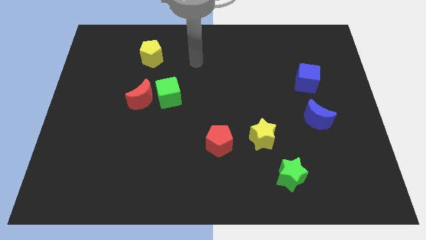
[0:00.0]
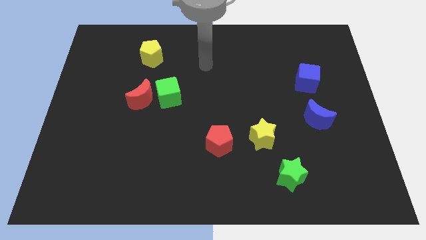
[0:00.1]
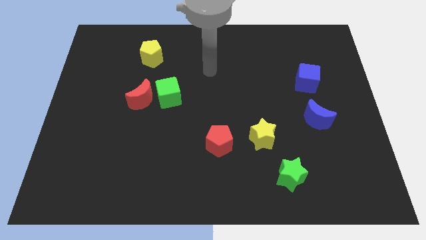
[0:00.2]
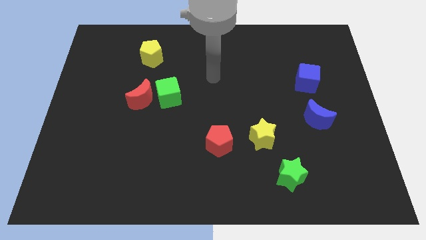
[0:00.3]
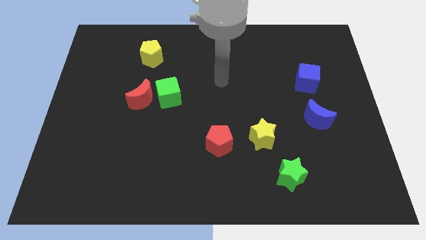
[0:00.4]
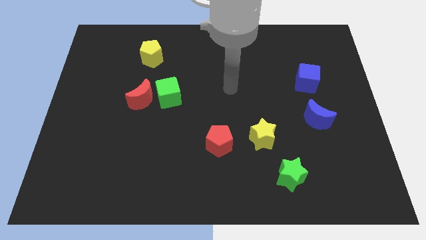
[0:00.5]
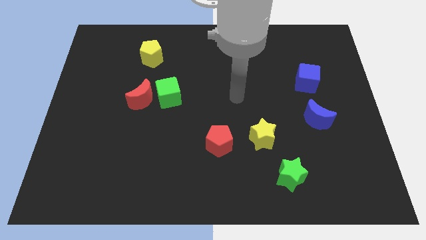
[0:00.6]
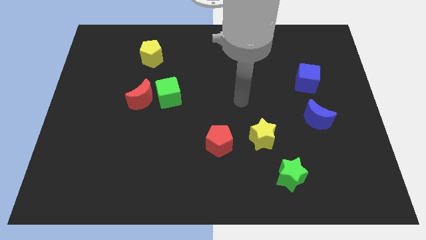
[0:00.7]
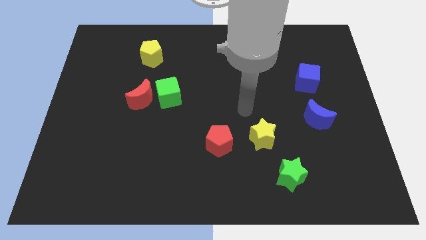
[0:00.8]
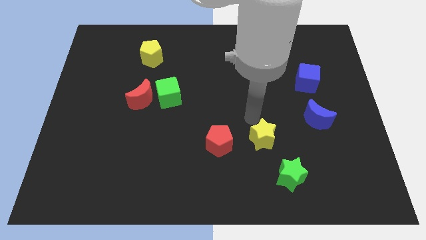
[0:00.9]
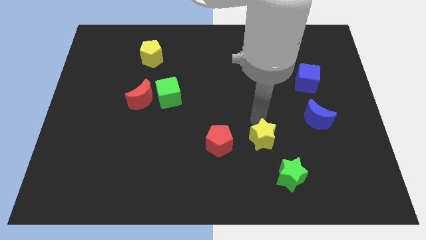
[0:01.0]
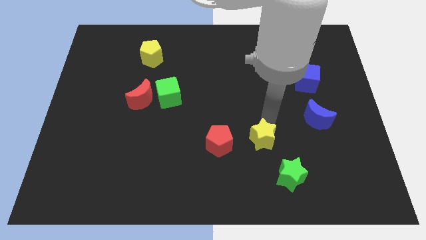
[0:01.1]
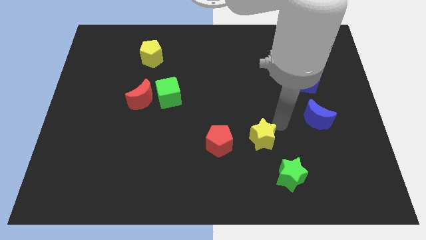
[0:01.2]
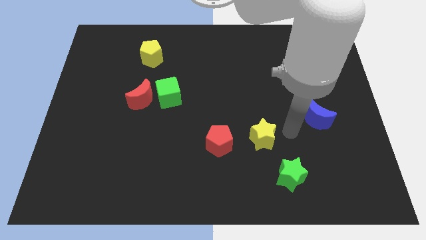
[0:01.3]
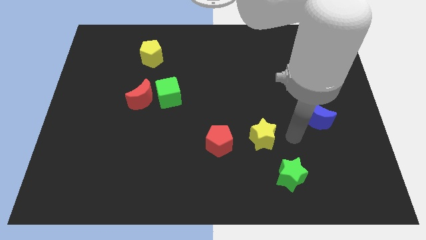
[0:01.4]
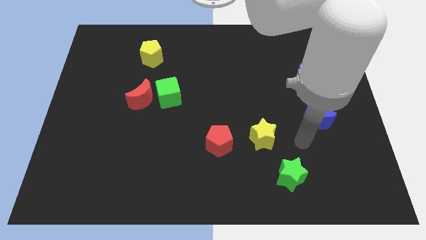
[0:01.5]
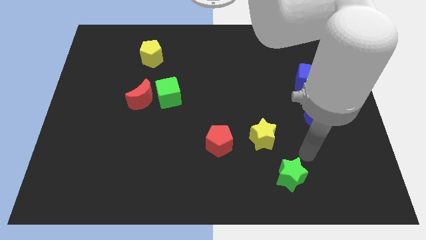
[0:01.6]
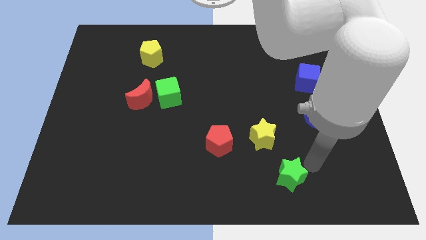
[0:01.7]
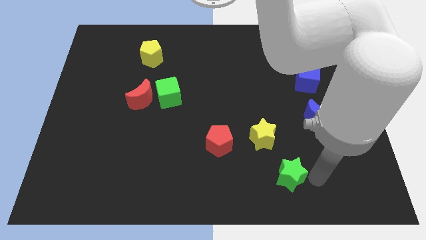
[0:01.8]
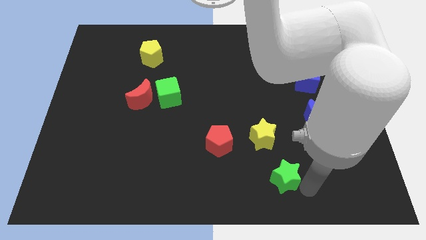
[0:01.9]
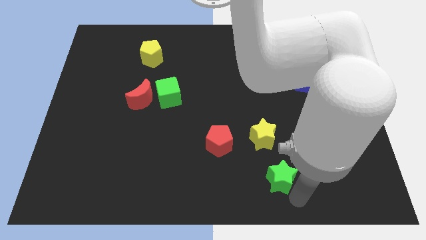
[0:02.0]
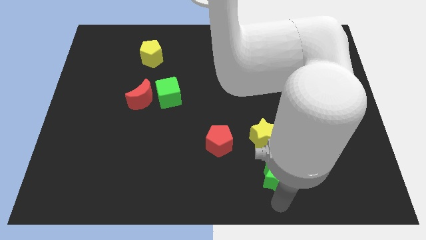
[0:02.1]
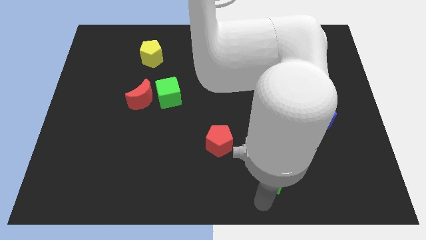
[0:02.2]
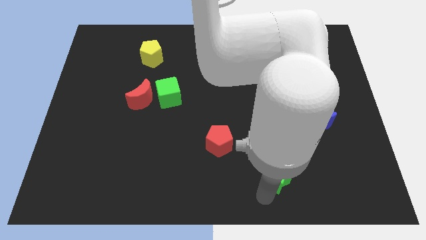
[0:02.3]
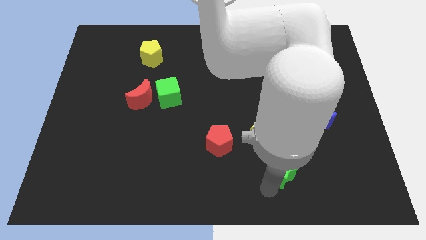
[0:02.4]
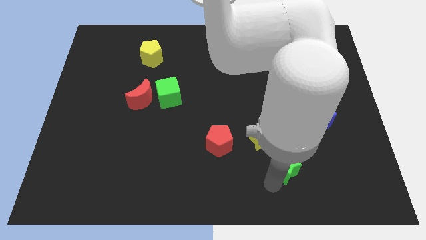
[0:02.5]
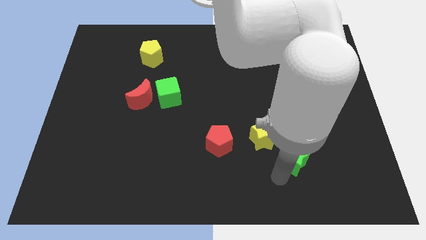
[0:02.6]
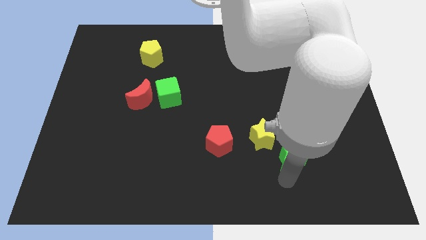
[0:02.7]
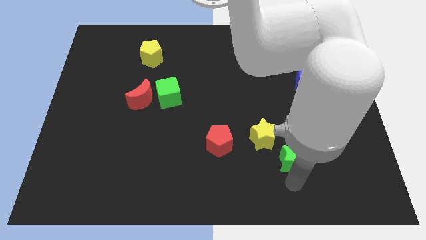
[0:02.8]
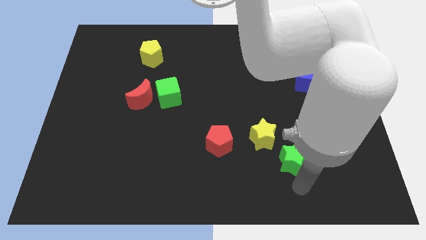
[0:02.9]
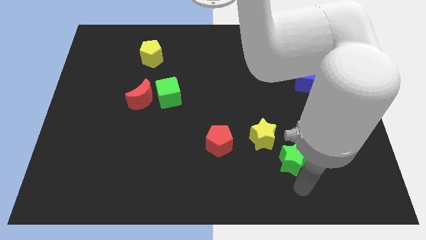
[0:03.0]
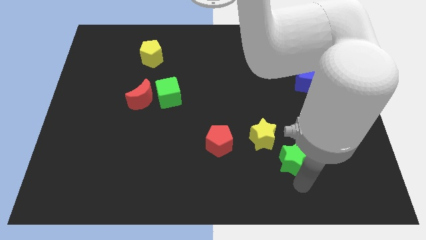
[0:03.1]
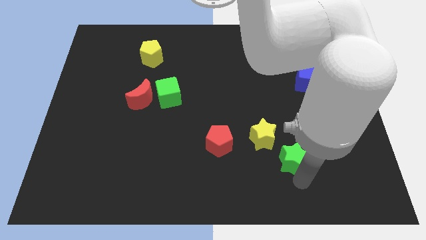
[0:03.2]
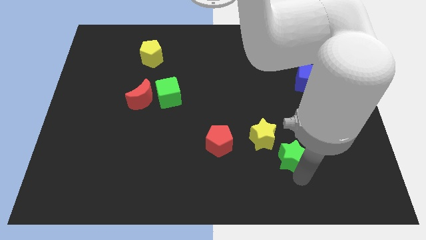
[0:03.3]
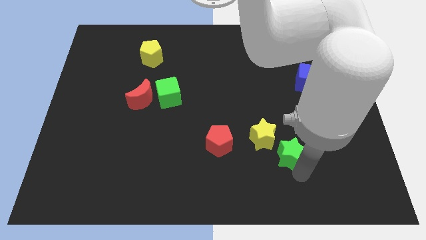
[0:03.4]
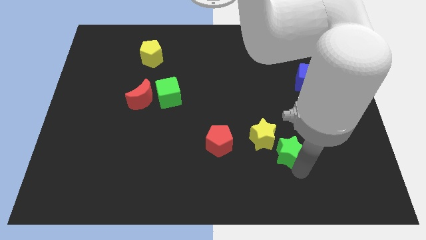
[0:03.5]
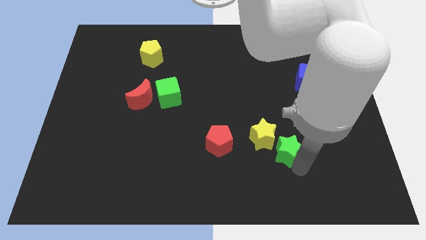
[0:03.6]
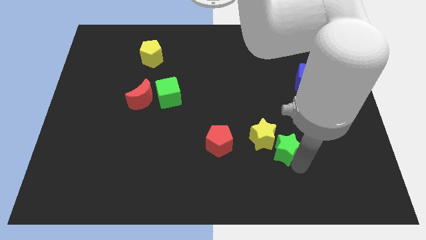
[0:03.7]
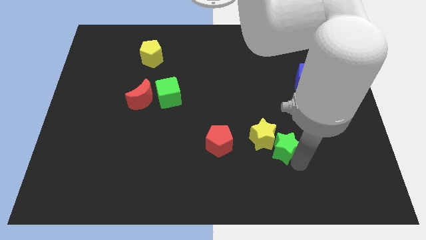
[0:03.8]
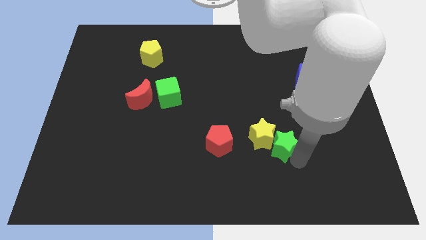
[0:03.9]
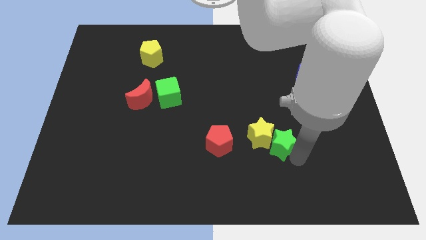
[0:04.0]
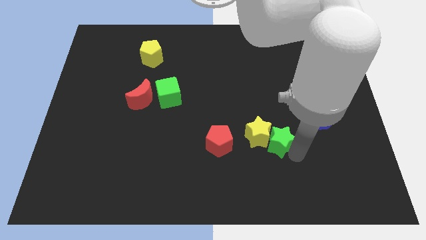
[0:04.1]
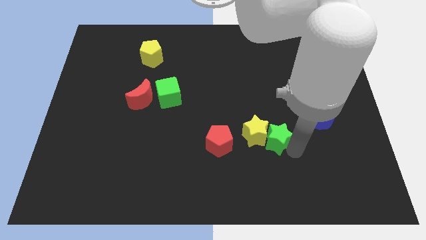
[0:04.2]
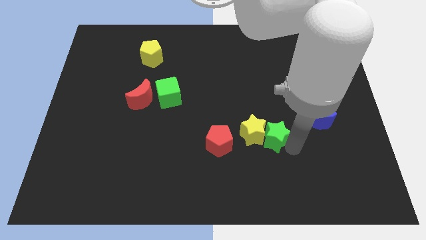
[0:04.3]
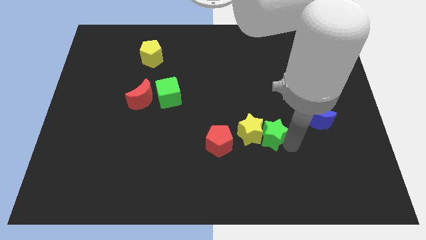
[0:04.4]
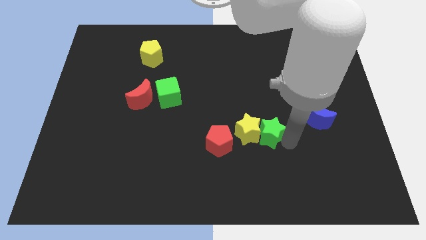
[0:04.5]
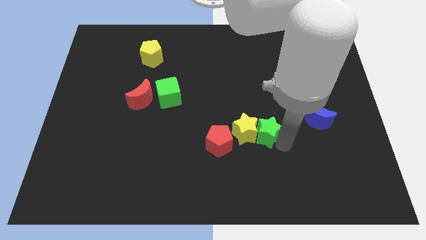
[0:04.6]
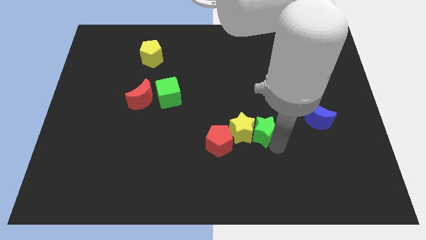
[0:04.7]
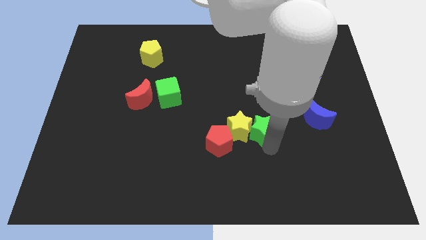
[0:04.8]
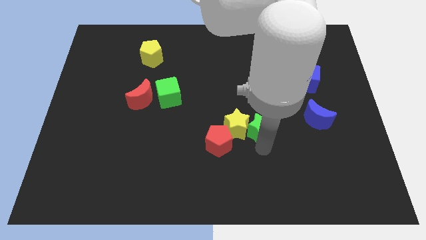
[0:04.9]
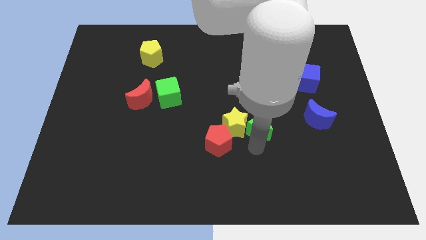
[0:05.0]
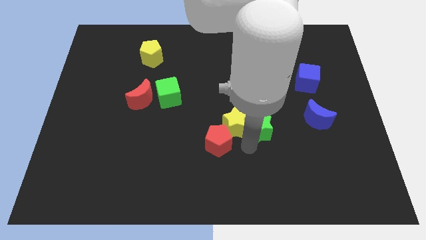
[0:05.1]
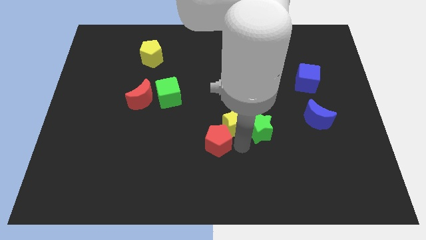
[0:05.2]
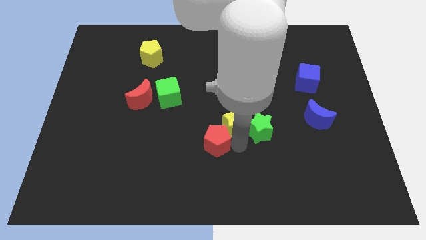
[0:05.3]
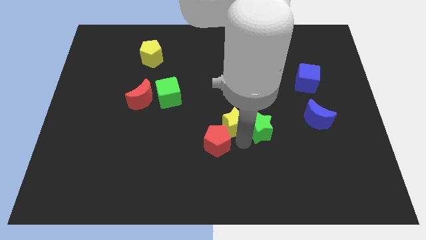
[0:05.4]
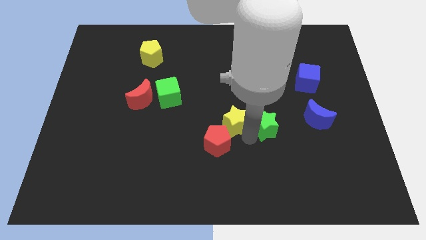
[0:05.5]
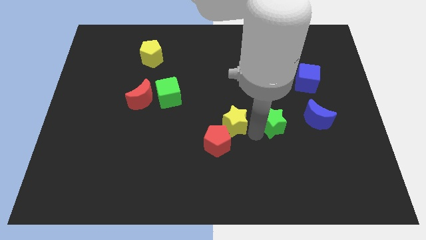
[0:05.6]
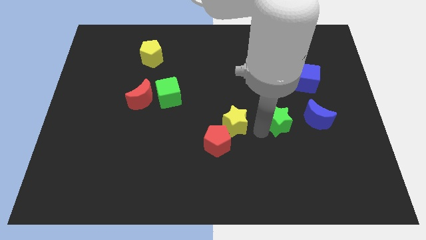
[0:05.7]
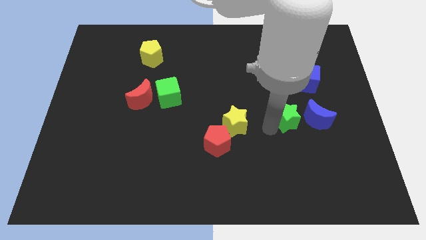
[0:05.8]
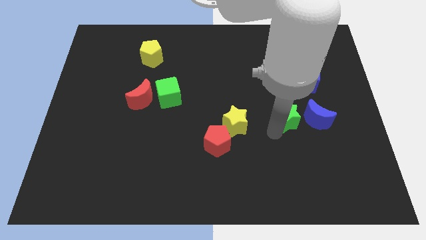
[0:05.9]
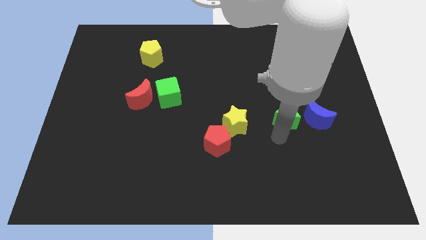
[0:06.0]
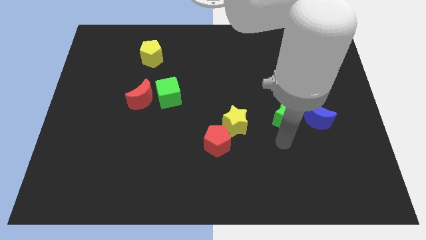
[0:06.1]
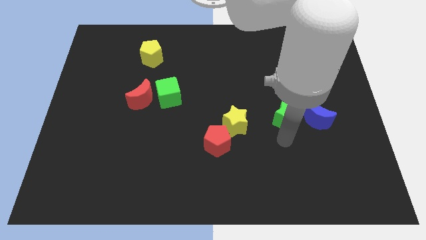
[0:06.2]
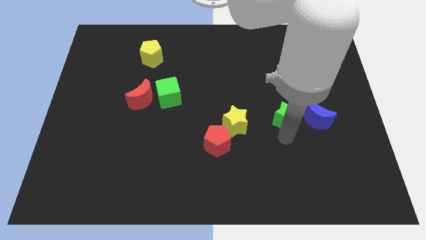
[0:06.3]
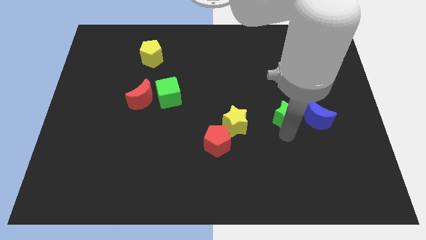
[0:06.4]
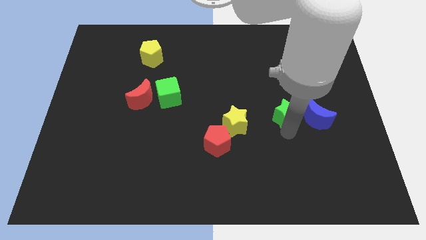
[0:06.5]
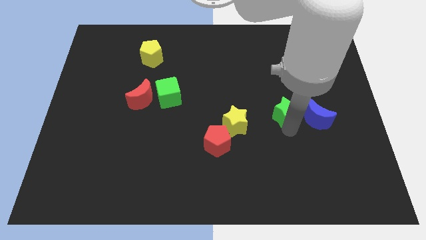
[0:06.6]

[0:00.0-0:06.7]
move the green star to the bottom left of the blue cube

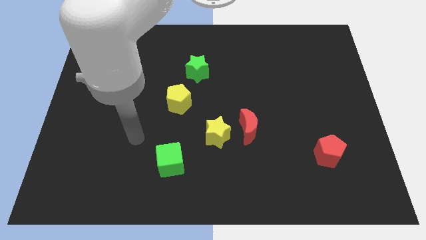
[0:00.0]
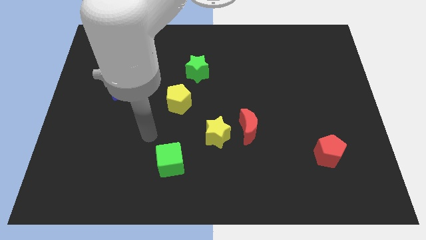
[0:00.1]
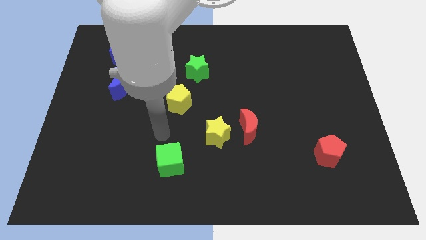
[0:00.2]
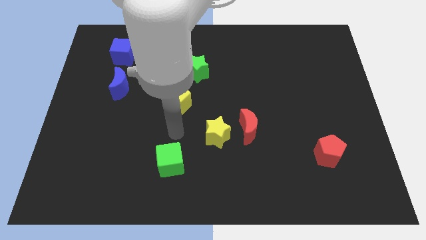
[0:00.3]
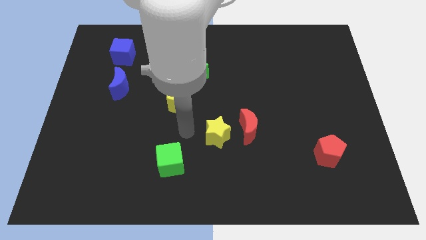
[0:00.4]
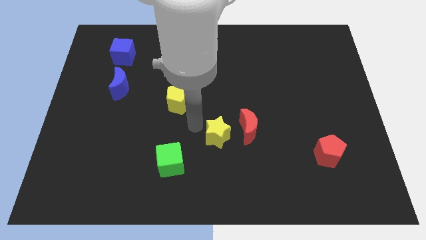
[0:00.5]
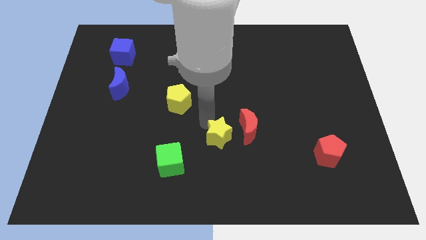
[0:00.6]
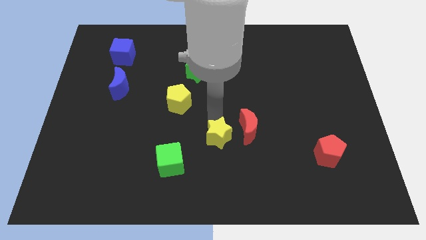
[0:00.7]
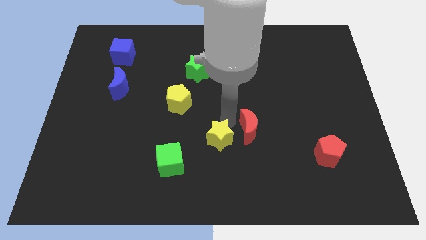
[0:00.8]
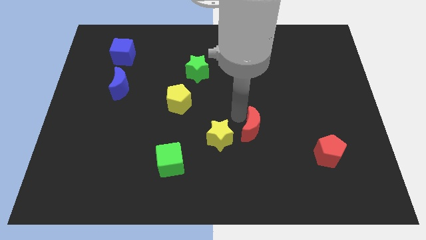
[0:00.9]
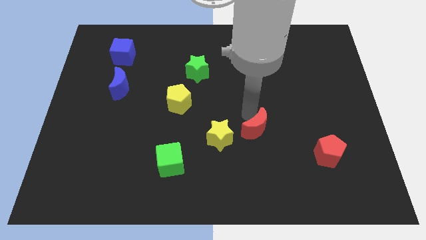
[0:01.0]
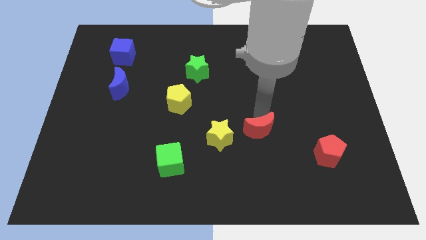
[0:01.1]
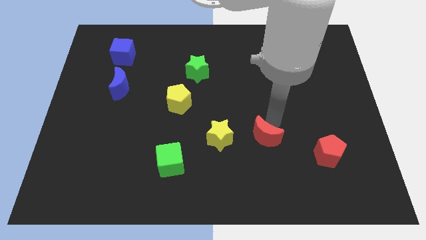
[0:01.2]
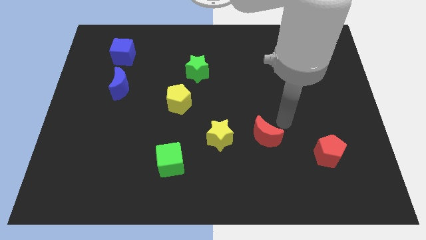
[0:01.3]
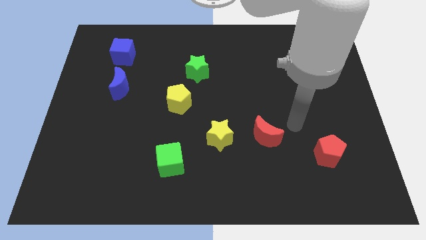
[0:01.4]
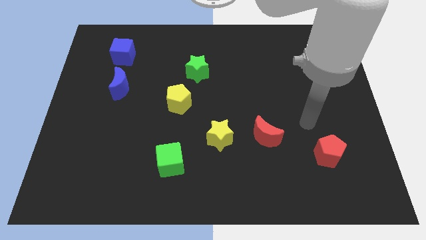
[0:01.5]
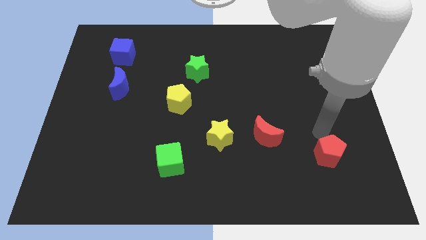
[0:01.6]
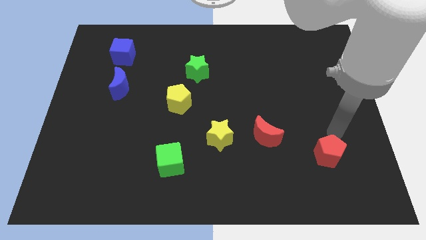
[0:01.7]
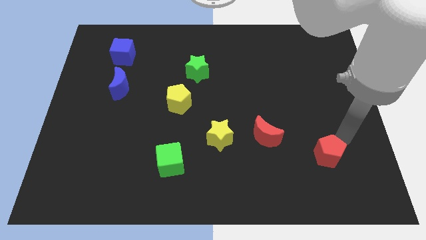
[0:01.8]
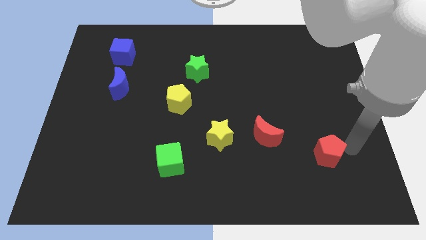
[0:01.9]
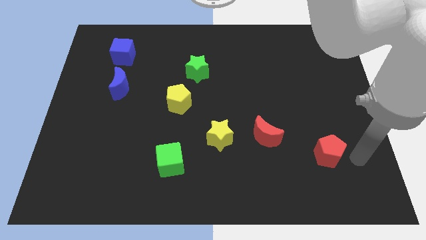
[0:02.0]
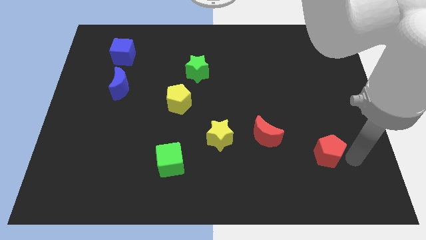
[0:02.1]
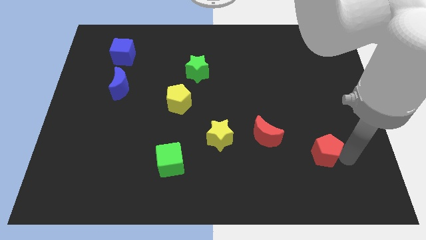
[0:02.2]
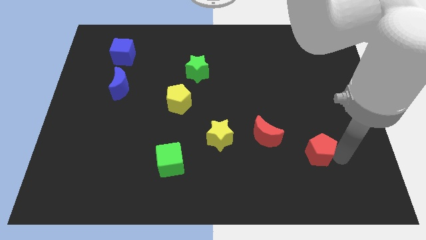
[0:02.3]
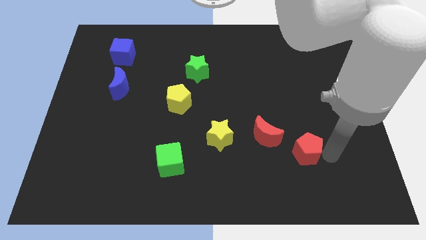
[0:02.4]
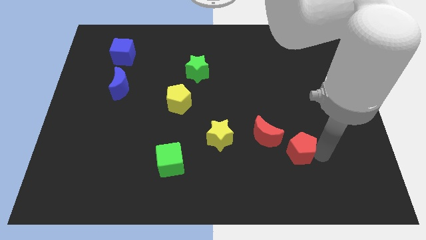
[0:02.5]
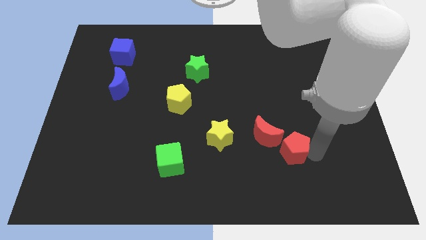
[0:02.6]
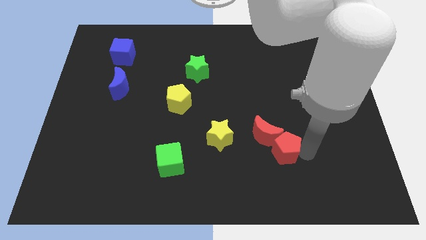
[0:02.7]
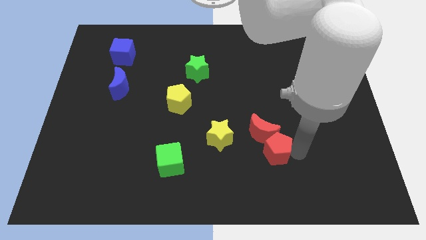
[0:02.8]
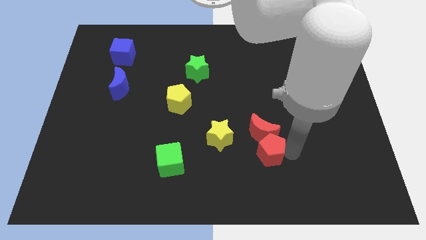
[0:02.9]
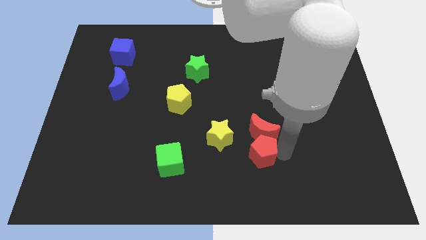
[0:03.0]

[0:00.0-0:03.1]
slide the red pentagon diagonally down and to the right of the yellow star
